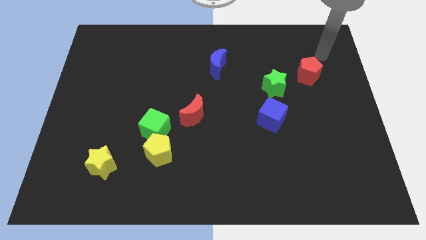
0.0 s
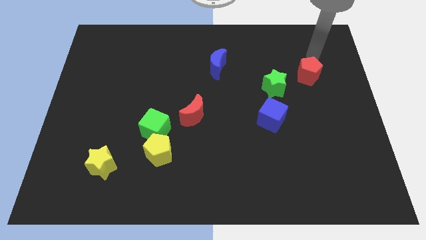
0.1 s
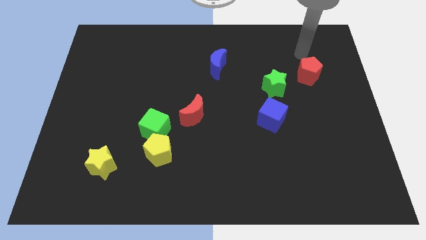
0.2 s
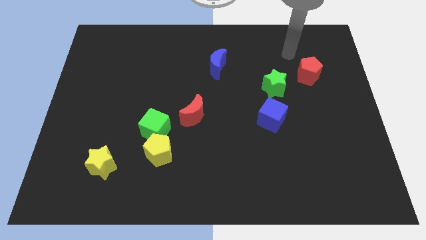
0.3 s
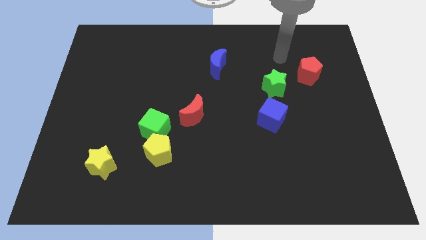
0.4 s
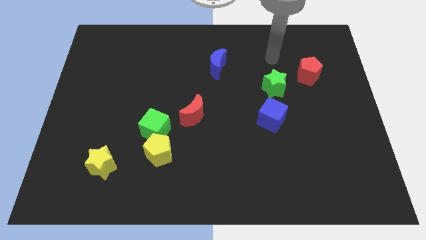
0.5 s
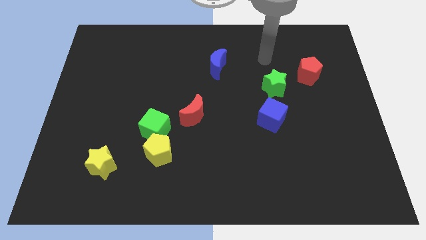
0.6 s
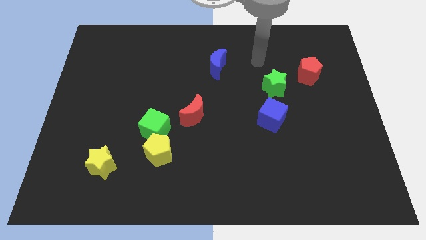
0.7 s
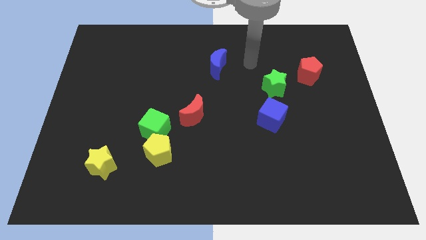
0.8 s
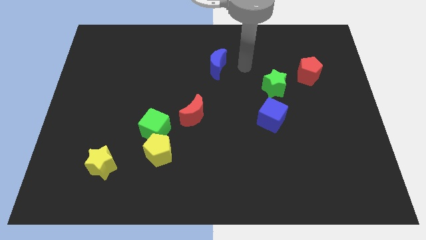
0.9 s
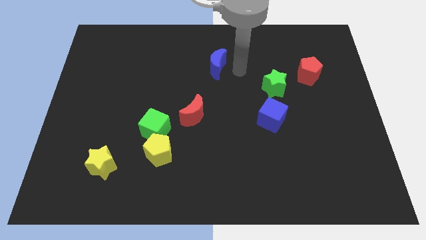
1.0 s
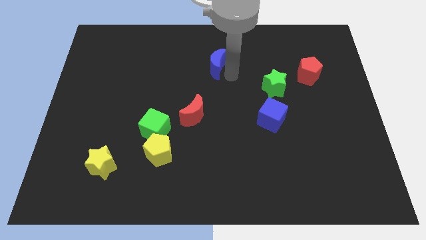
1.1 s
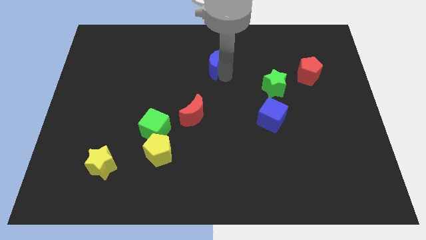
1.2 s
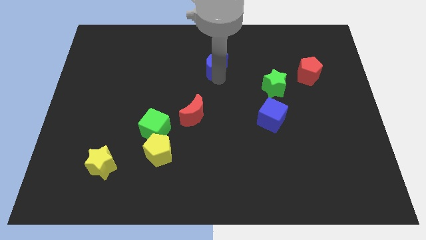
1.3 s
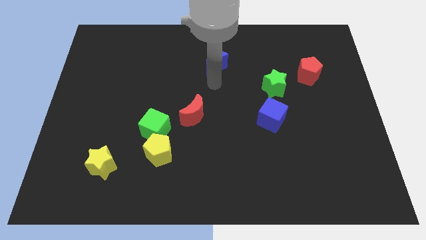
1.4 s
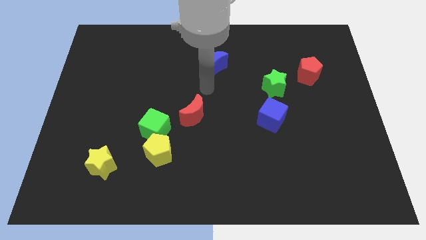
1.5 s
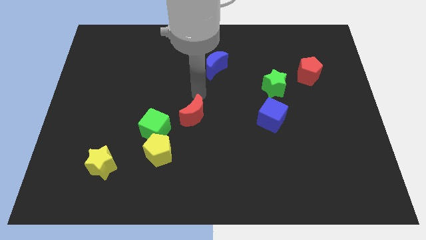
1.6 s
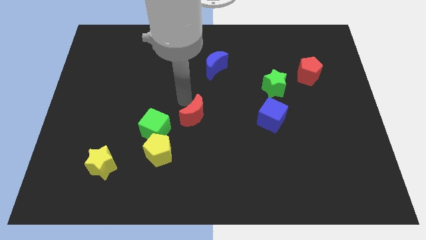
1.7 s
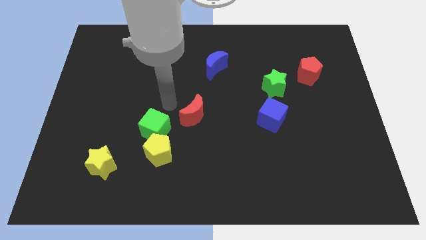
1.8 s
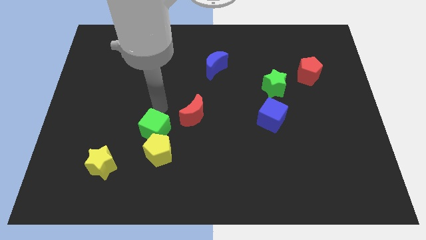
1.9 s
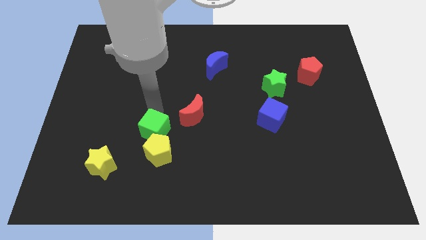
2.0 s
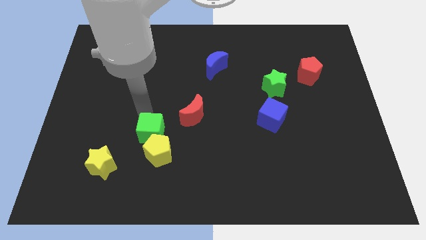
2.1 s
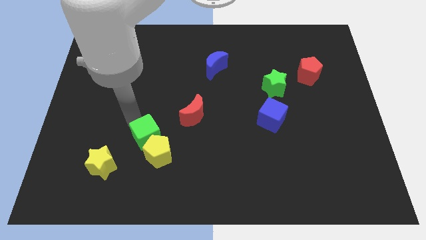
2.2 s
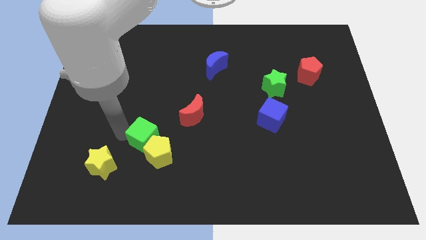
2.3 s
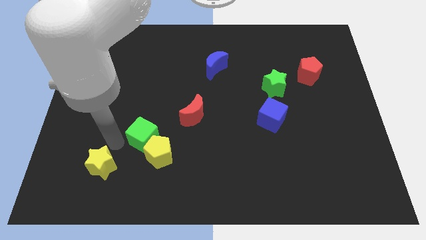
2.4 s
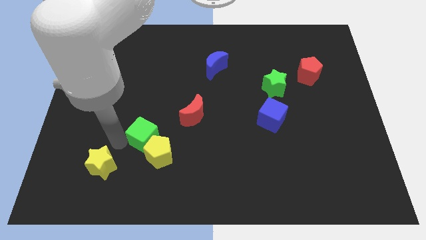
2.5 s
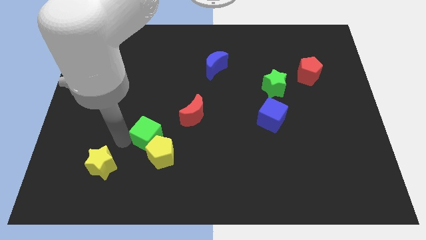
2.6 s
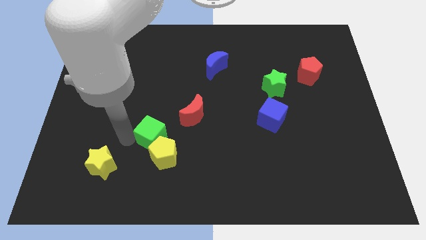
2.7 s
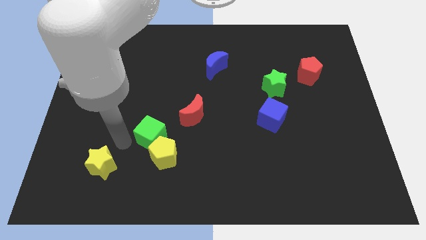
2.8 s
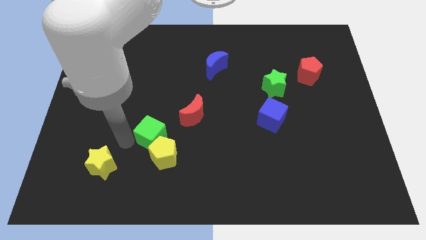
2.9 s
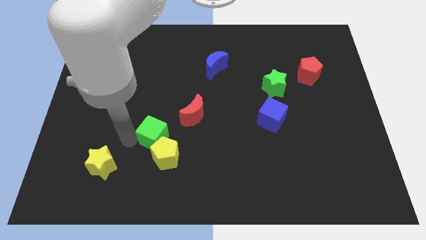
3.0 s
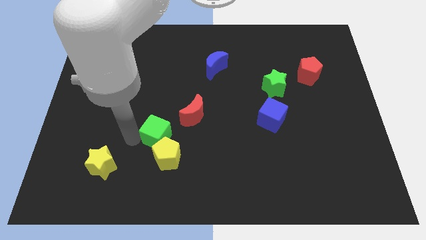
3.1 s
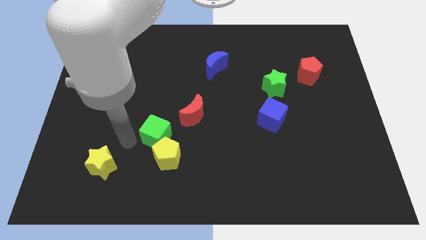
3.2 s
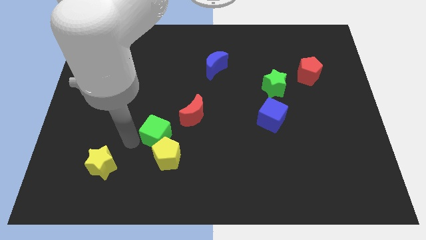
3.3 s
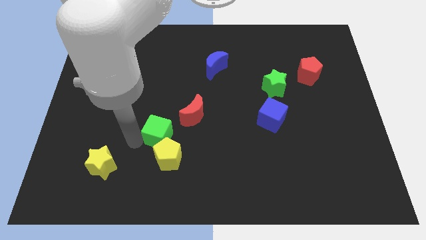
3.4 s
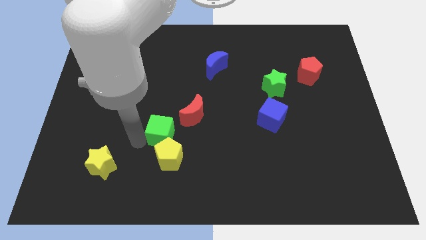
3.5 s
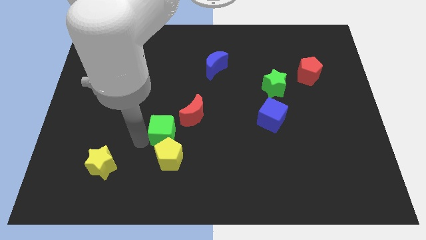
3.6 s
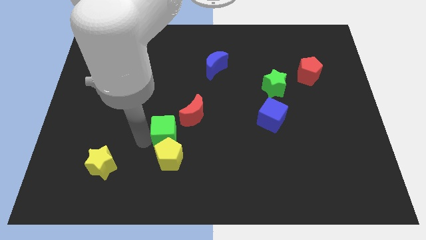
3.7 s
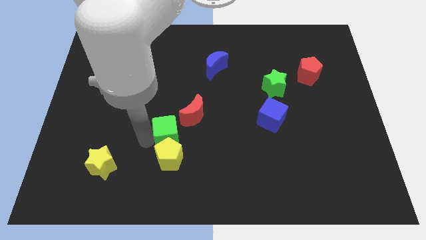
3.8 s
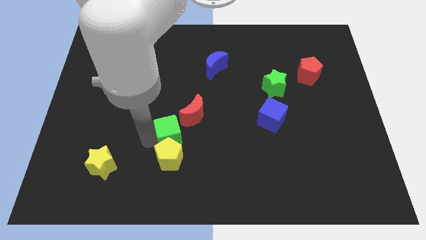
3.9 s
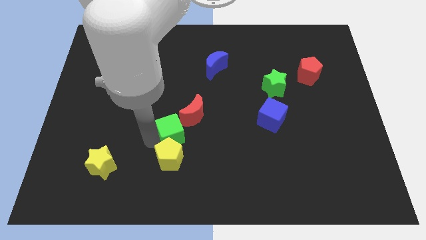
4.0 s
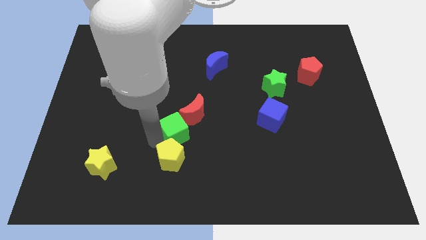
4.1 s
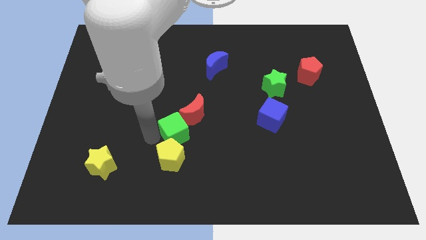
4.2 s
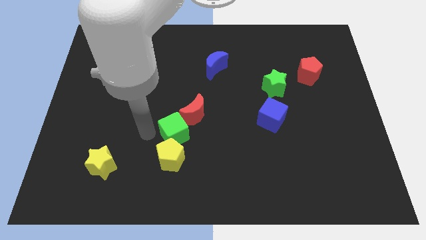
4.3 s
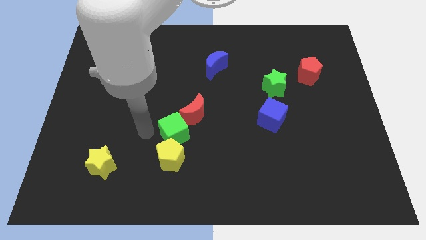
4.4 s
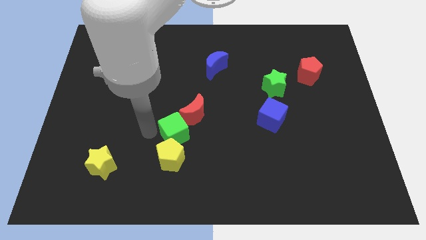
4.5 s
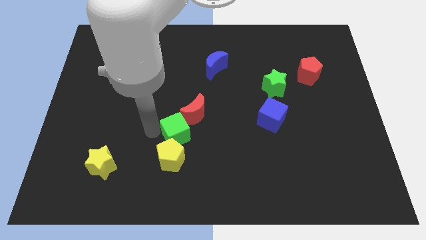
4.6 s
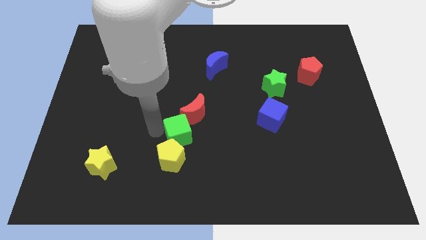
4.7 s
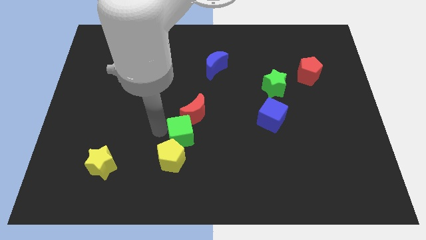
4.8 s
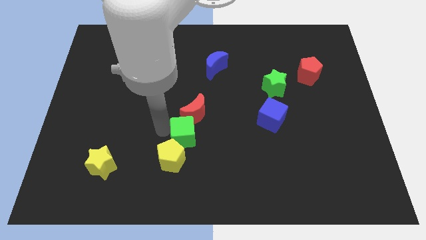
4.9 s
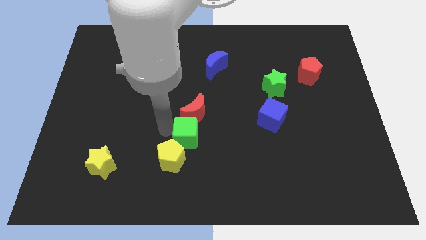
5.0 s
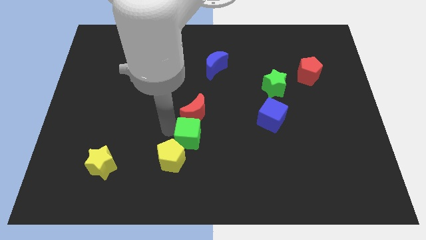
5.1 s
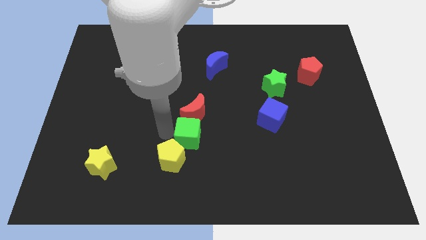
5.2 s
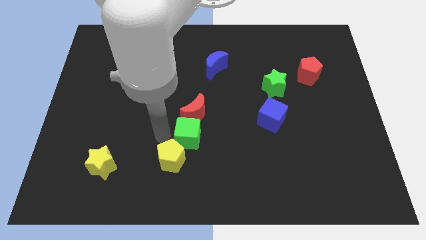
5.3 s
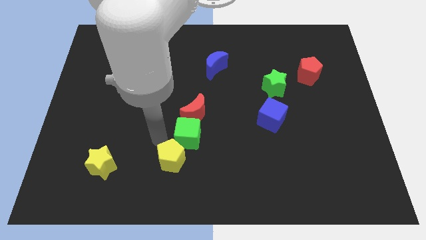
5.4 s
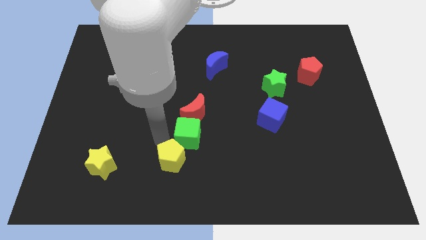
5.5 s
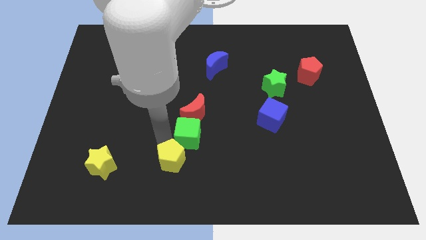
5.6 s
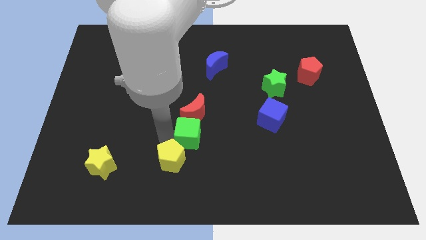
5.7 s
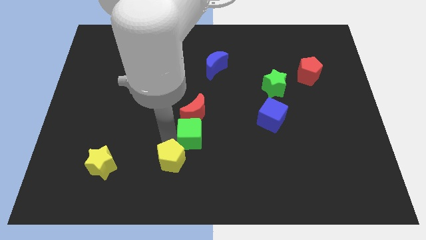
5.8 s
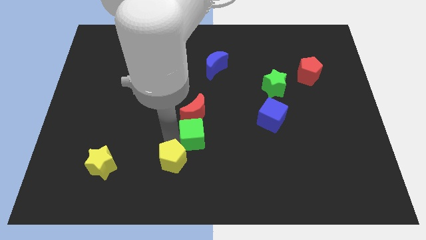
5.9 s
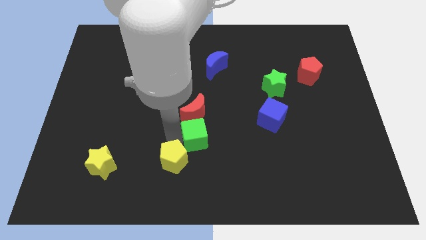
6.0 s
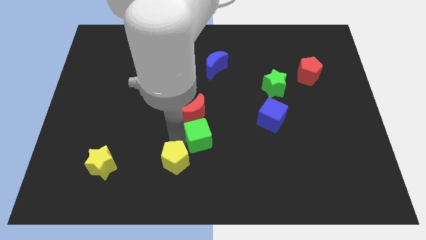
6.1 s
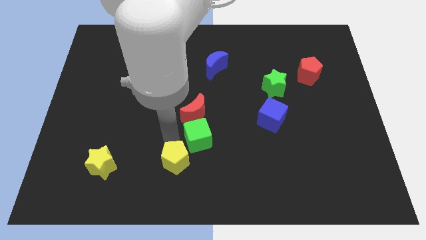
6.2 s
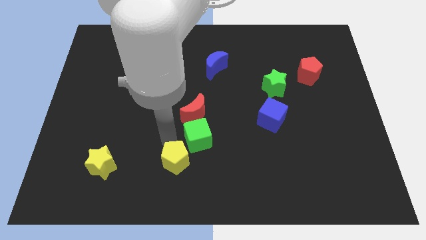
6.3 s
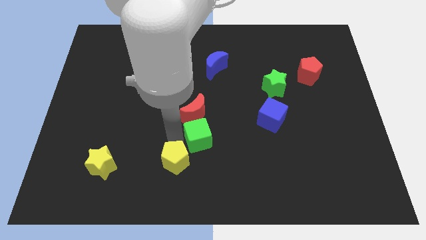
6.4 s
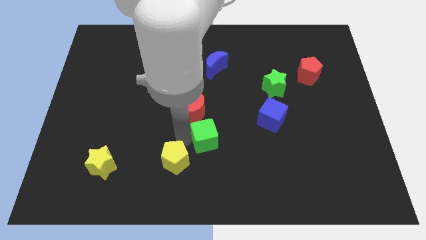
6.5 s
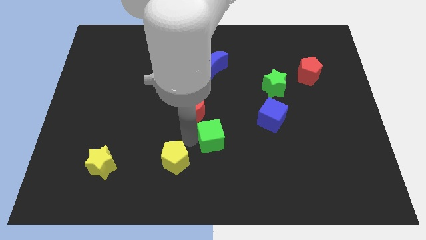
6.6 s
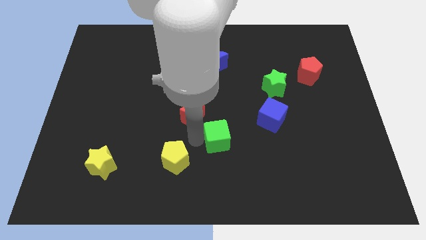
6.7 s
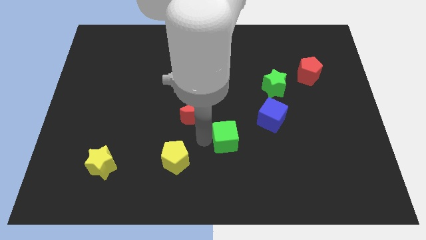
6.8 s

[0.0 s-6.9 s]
move the green cube diagonally down and to the left of the blue cube

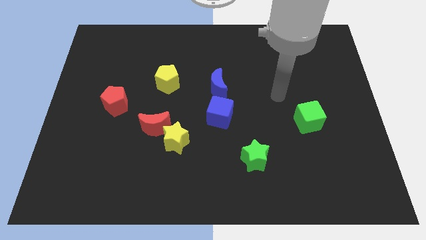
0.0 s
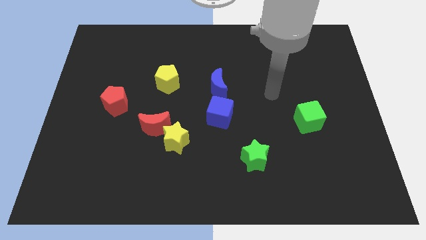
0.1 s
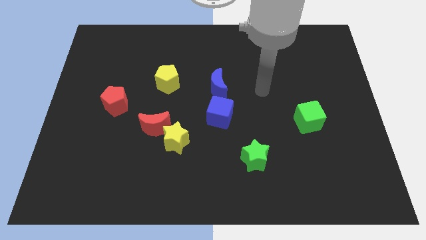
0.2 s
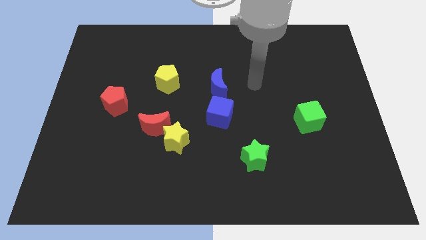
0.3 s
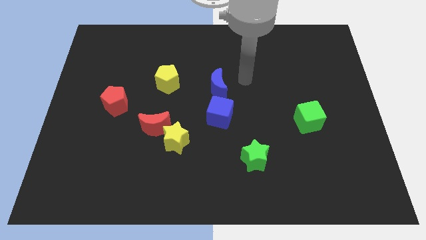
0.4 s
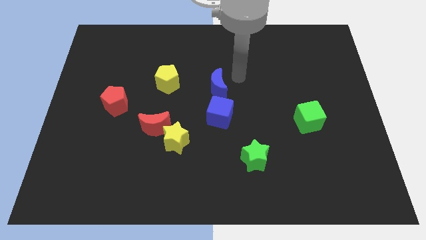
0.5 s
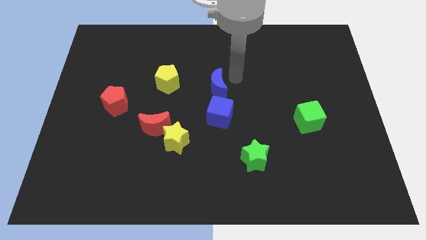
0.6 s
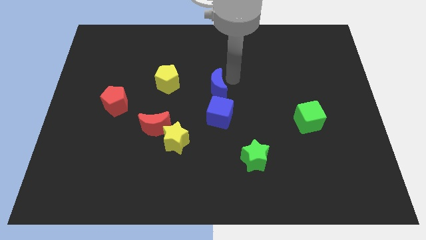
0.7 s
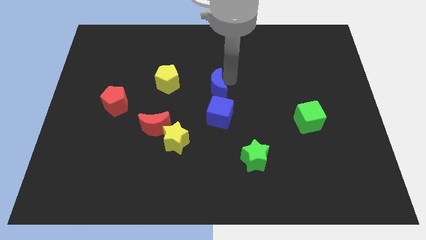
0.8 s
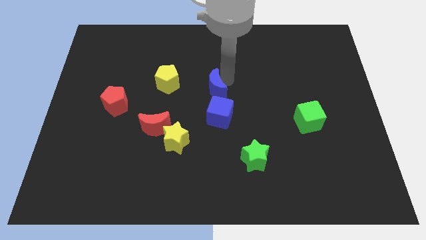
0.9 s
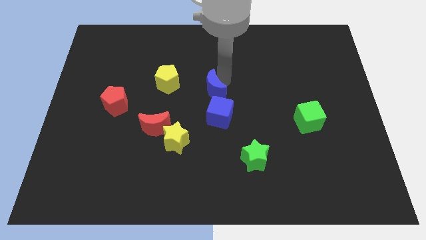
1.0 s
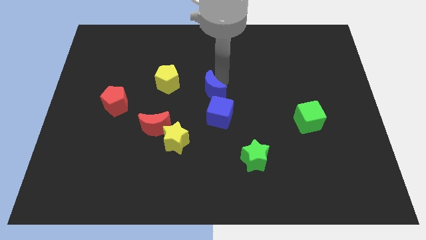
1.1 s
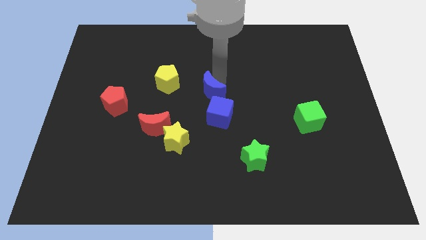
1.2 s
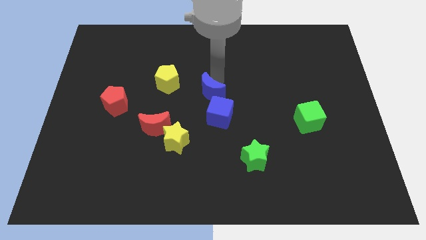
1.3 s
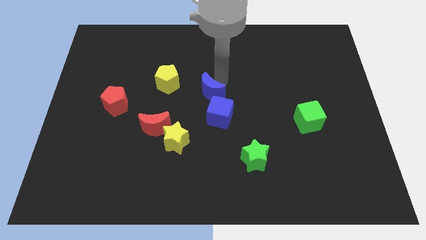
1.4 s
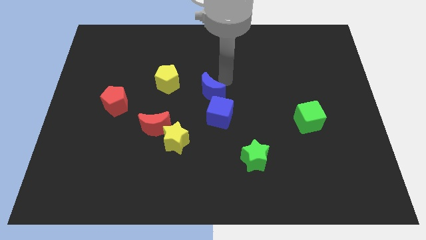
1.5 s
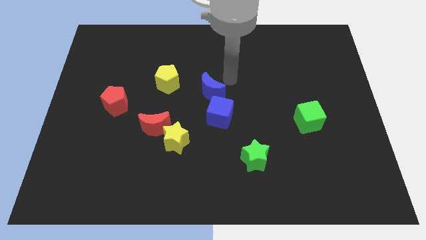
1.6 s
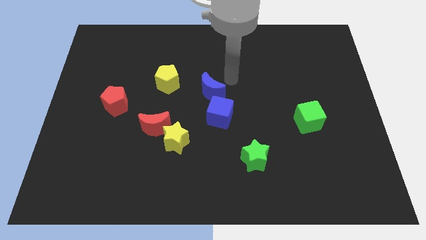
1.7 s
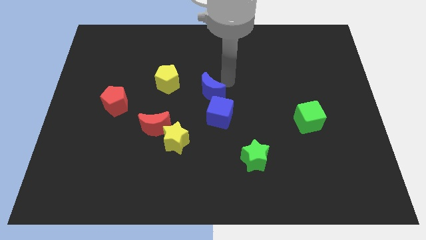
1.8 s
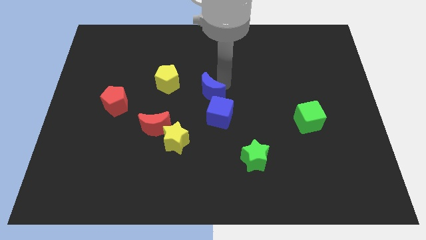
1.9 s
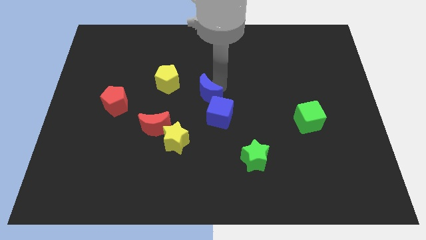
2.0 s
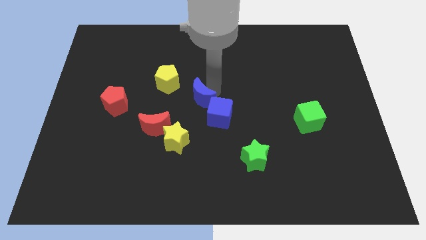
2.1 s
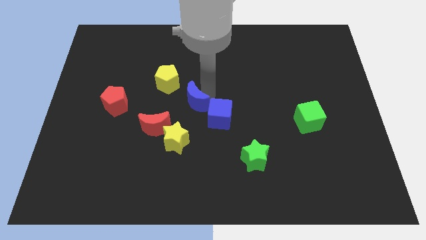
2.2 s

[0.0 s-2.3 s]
move the blue moon to the top right of the red moon
